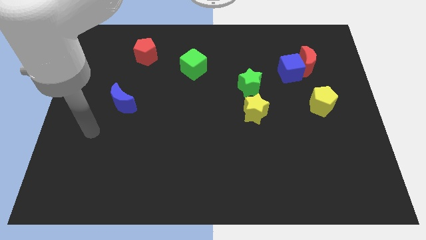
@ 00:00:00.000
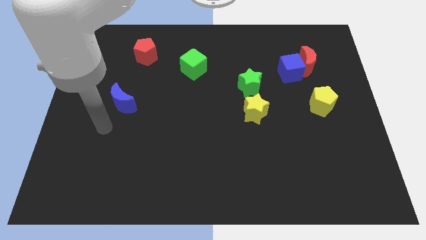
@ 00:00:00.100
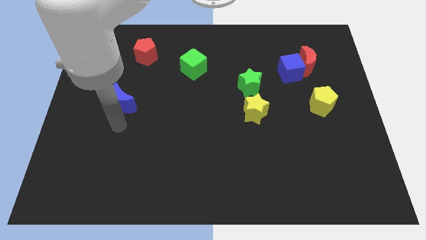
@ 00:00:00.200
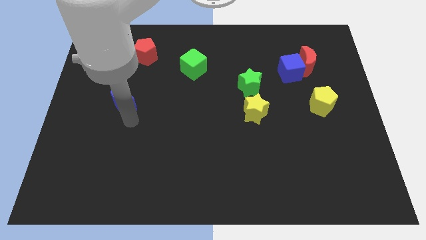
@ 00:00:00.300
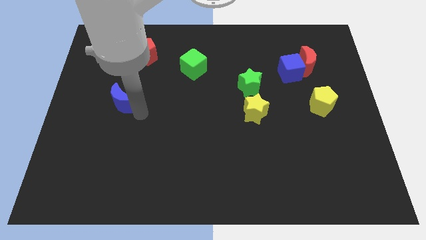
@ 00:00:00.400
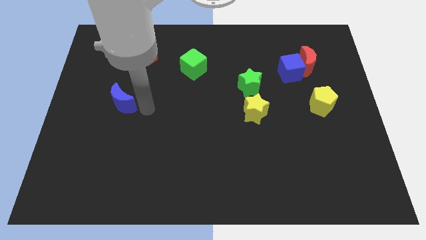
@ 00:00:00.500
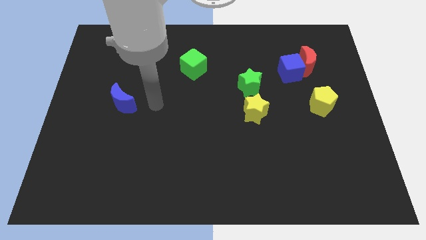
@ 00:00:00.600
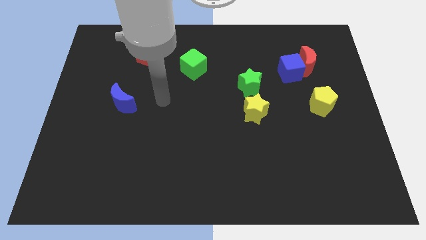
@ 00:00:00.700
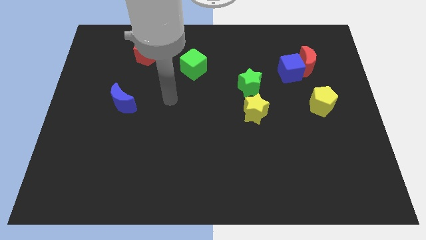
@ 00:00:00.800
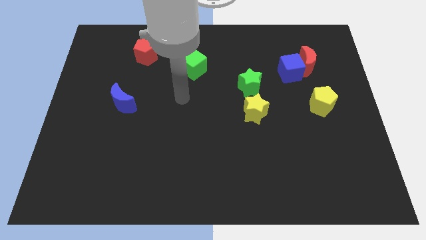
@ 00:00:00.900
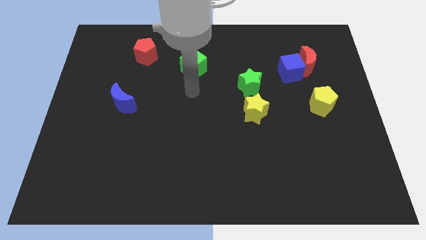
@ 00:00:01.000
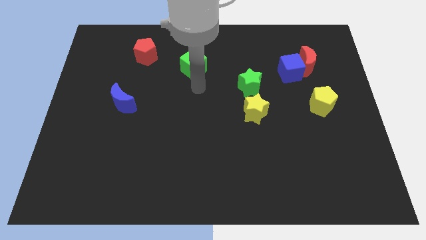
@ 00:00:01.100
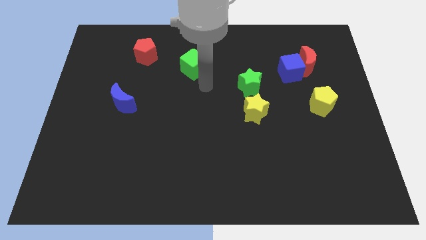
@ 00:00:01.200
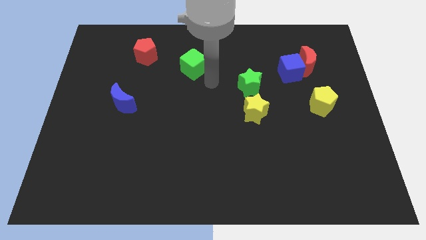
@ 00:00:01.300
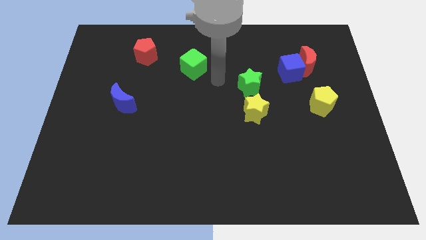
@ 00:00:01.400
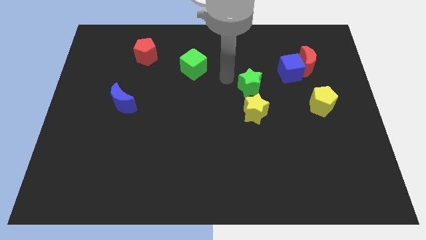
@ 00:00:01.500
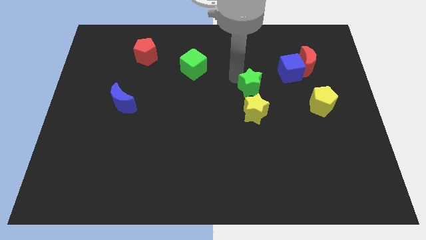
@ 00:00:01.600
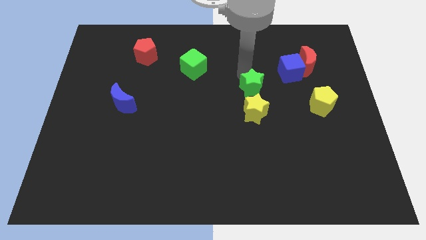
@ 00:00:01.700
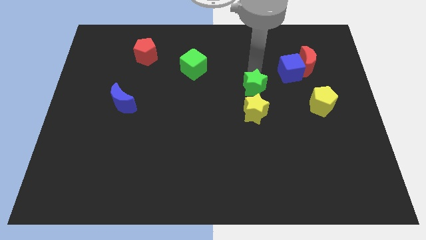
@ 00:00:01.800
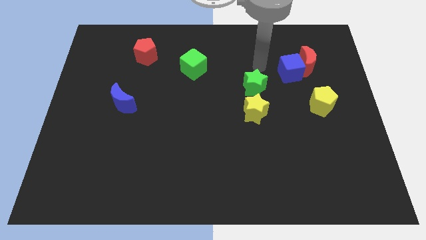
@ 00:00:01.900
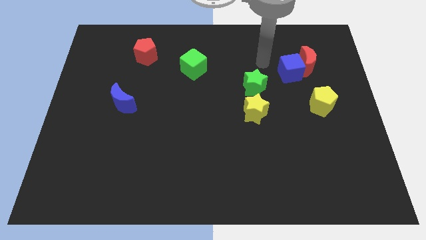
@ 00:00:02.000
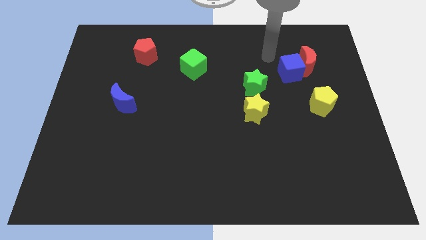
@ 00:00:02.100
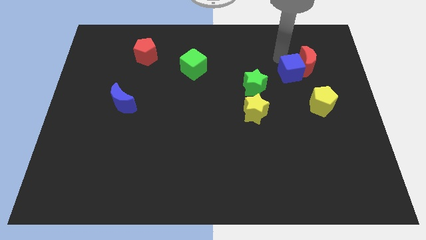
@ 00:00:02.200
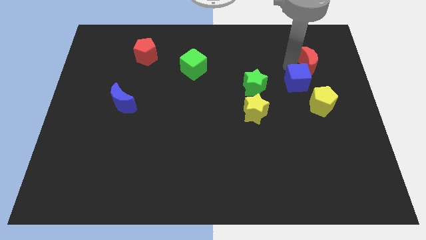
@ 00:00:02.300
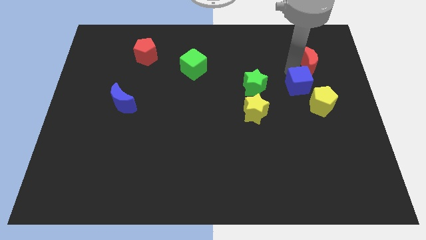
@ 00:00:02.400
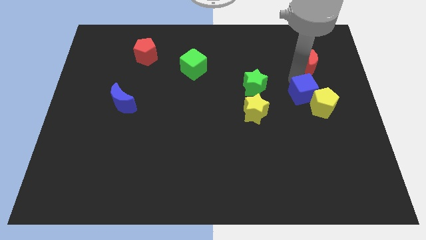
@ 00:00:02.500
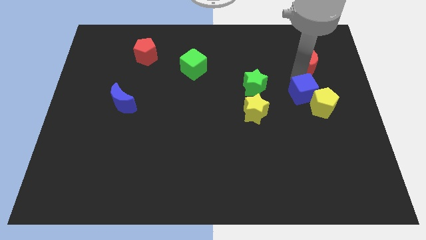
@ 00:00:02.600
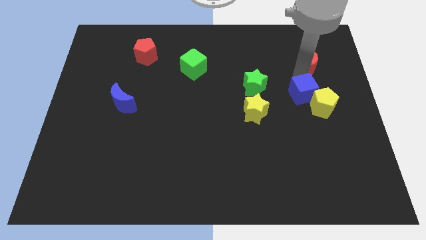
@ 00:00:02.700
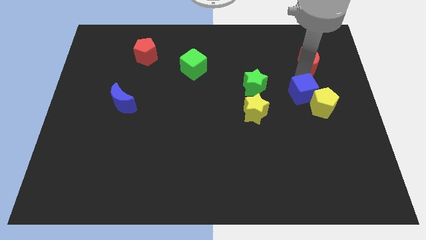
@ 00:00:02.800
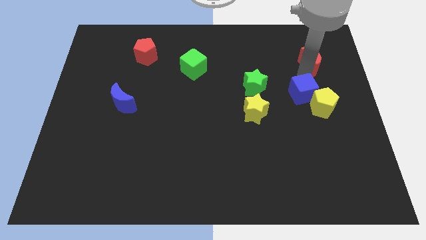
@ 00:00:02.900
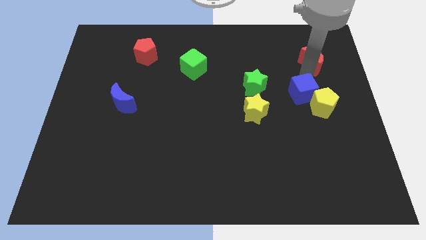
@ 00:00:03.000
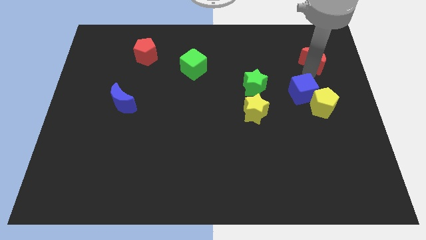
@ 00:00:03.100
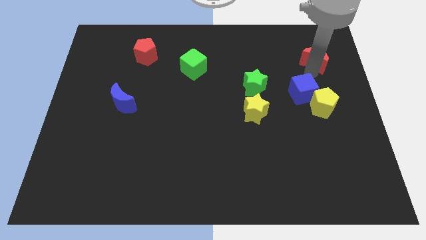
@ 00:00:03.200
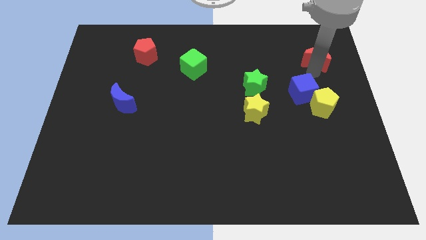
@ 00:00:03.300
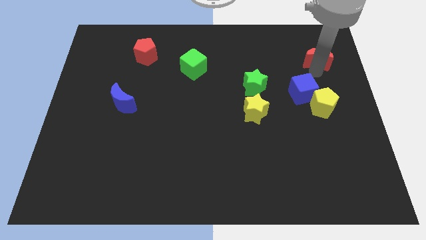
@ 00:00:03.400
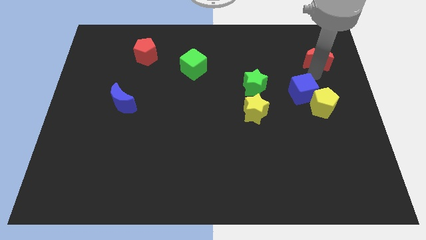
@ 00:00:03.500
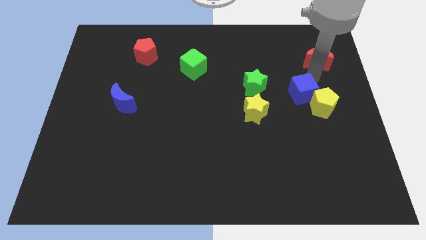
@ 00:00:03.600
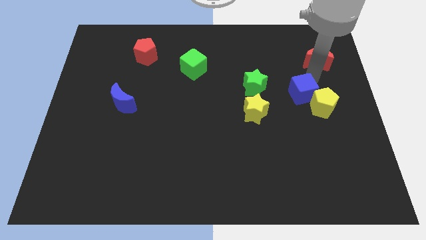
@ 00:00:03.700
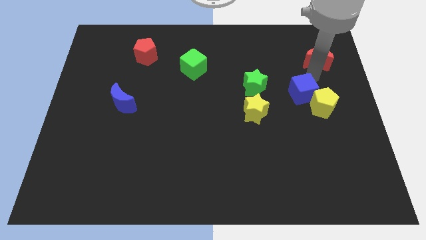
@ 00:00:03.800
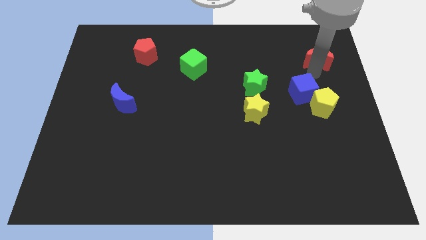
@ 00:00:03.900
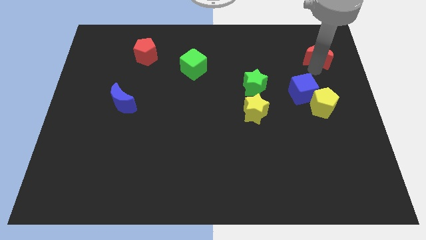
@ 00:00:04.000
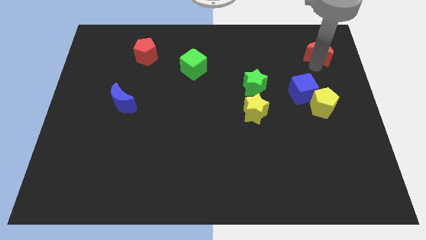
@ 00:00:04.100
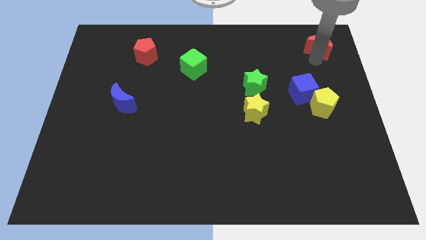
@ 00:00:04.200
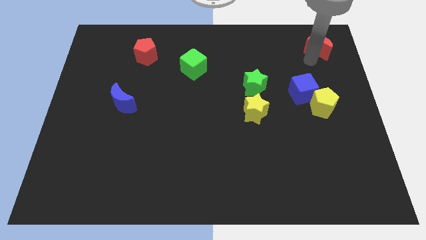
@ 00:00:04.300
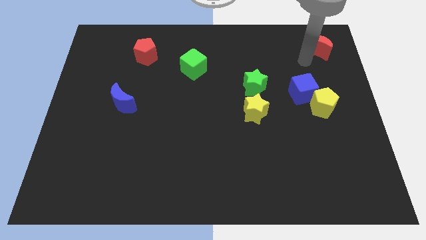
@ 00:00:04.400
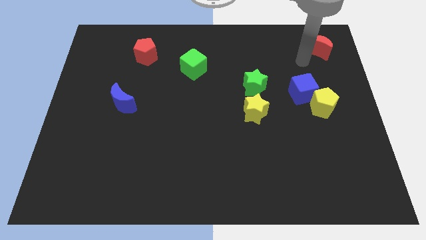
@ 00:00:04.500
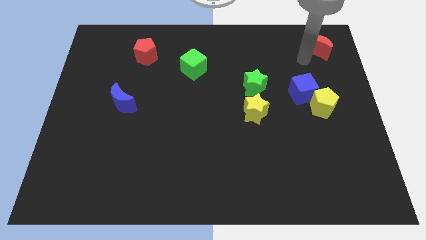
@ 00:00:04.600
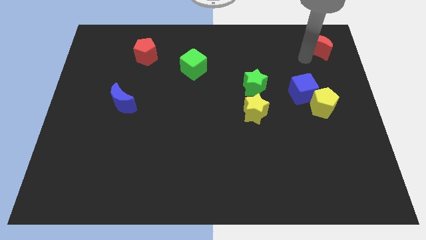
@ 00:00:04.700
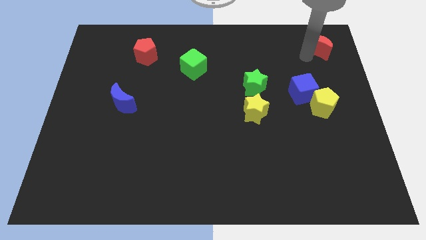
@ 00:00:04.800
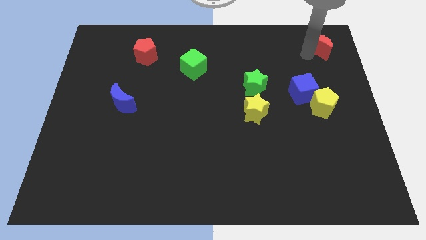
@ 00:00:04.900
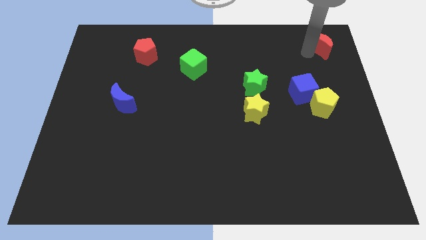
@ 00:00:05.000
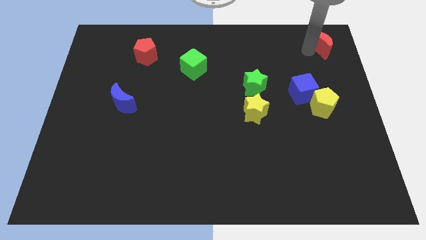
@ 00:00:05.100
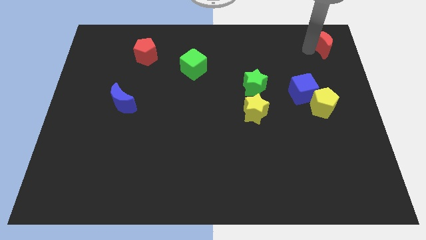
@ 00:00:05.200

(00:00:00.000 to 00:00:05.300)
slide the red moon to the top right

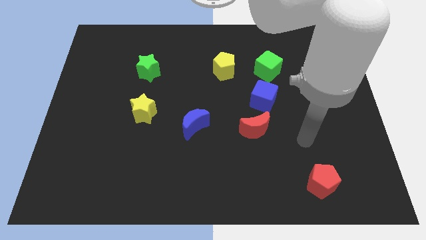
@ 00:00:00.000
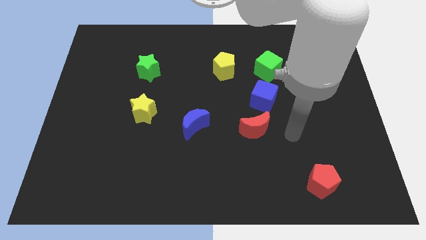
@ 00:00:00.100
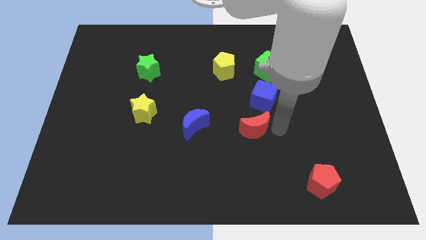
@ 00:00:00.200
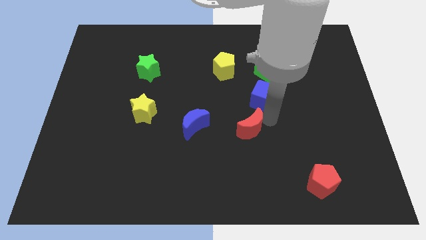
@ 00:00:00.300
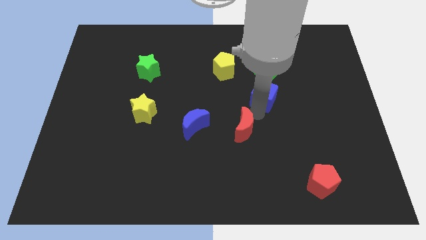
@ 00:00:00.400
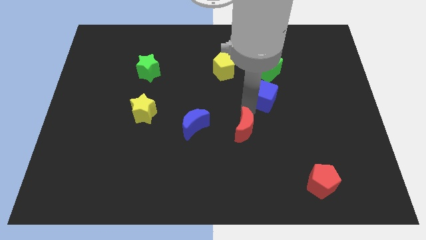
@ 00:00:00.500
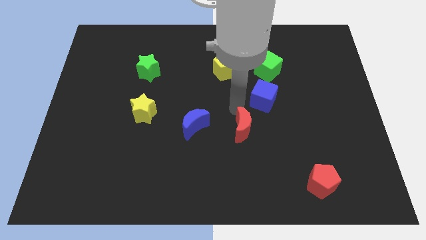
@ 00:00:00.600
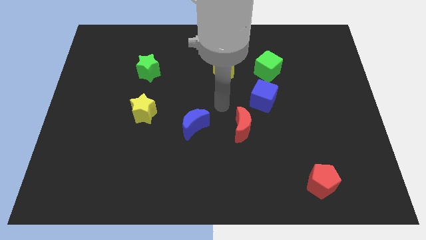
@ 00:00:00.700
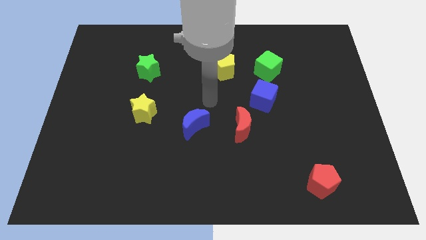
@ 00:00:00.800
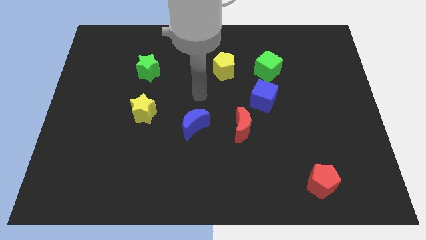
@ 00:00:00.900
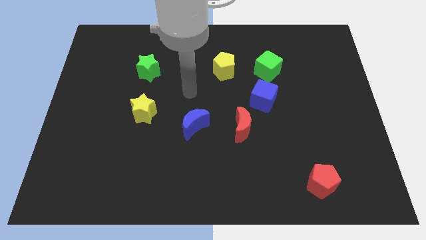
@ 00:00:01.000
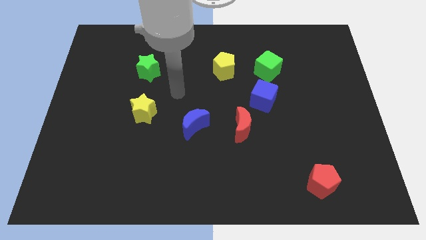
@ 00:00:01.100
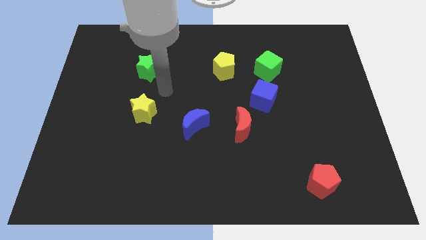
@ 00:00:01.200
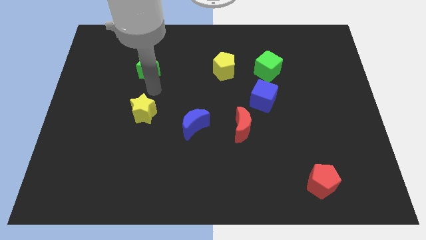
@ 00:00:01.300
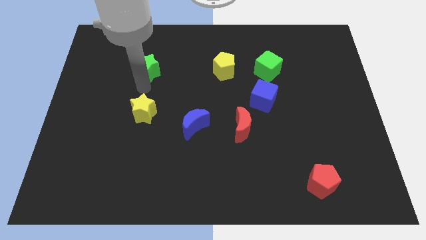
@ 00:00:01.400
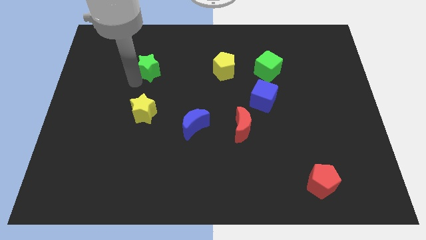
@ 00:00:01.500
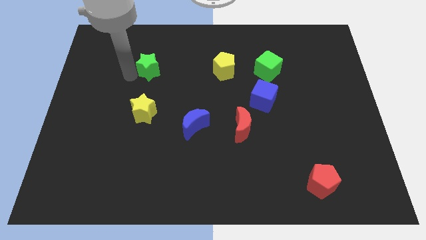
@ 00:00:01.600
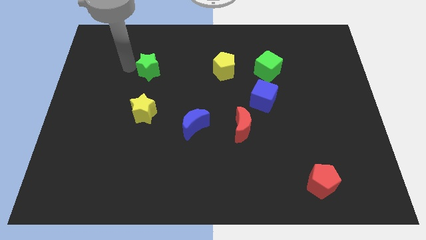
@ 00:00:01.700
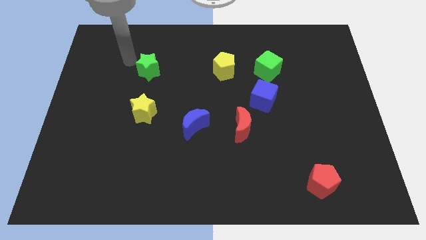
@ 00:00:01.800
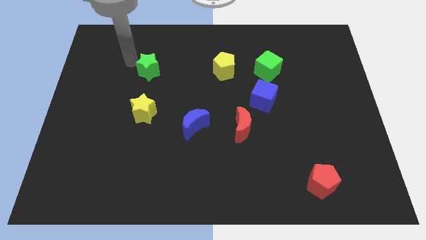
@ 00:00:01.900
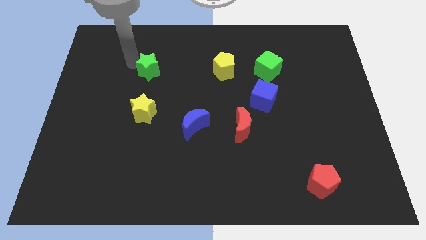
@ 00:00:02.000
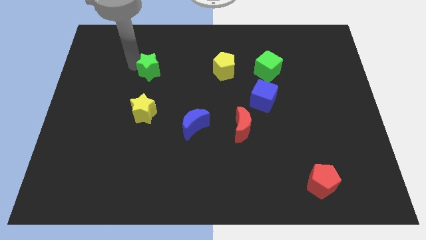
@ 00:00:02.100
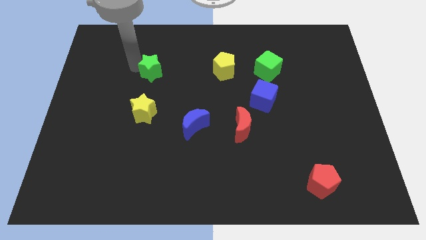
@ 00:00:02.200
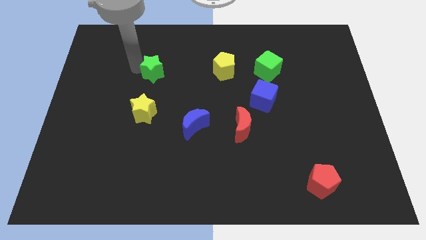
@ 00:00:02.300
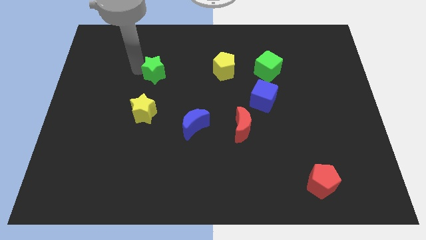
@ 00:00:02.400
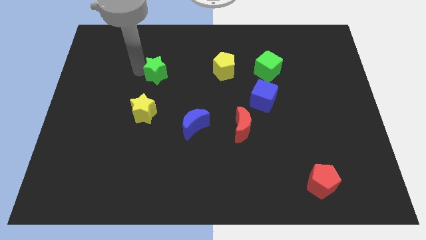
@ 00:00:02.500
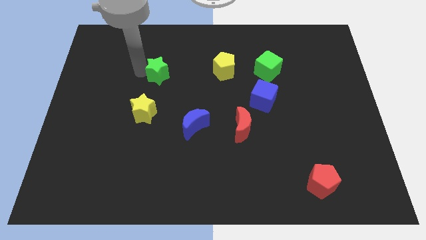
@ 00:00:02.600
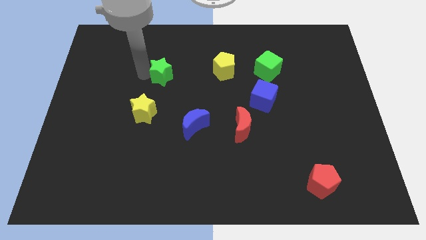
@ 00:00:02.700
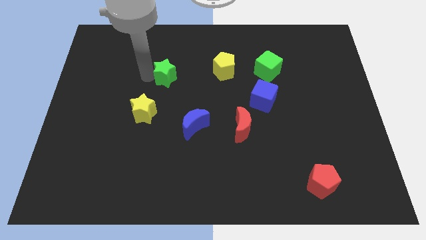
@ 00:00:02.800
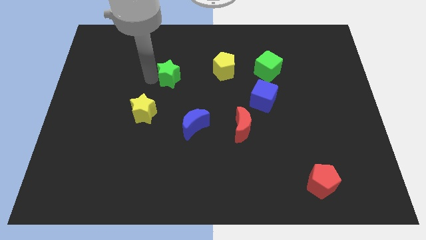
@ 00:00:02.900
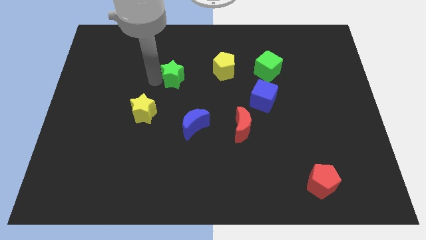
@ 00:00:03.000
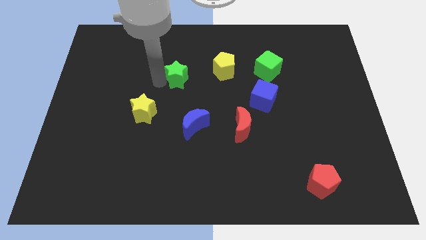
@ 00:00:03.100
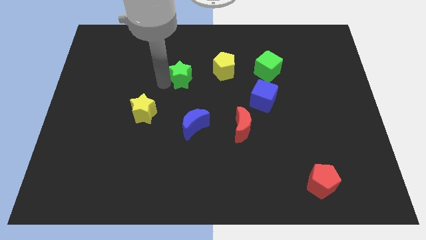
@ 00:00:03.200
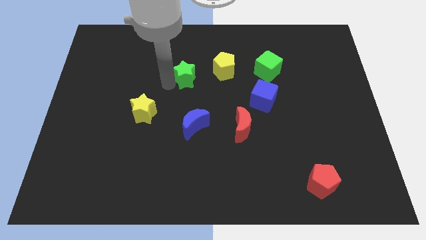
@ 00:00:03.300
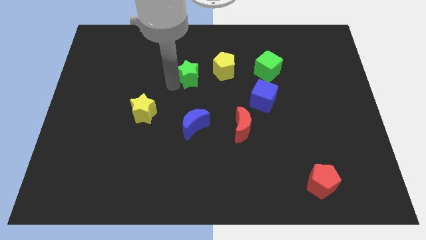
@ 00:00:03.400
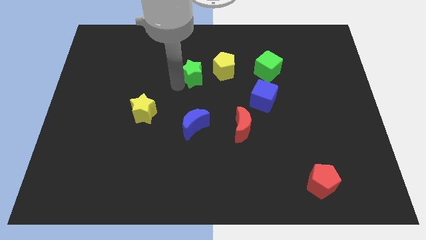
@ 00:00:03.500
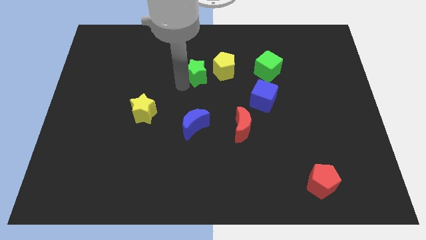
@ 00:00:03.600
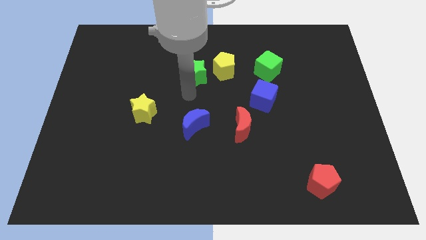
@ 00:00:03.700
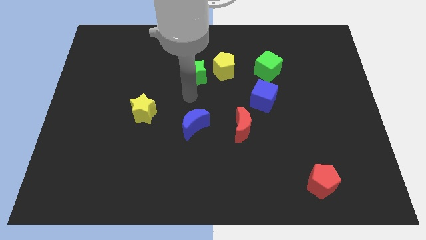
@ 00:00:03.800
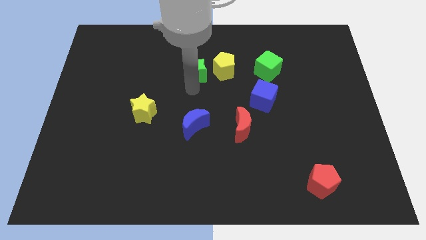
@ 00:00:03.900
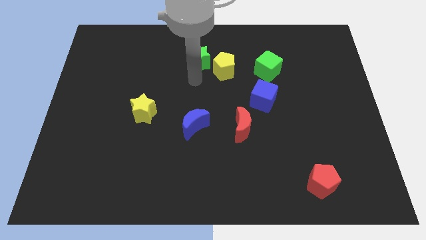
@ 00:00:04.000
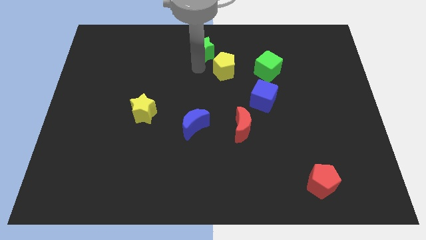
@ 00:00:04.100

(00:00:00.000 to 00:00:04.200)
put the green star to the towards your base
